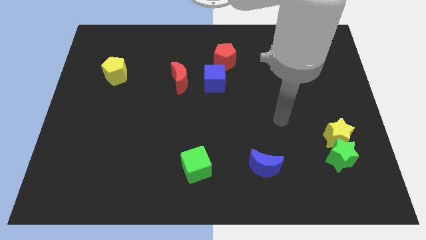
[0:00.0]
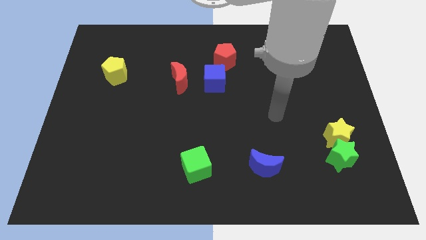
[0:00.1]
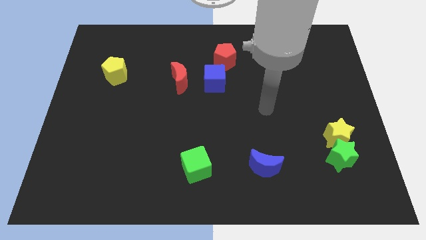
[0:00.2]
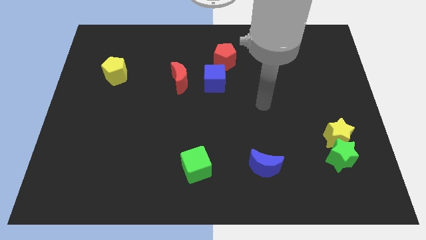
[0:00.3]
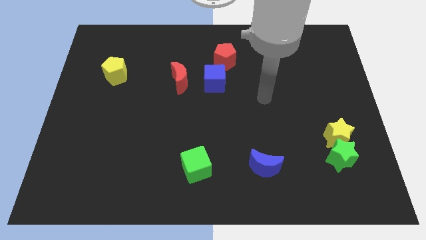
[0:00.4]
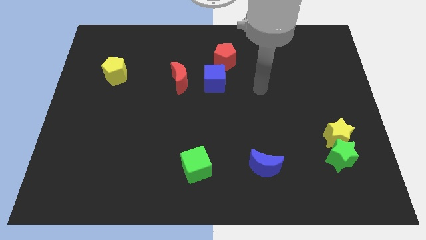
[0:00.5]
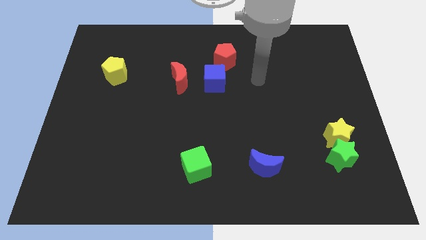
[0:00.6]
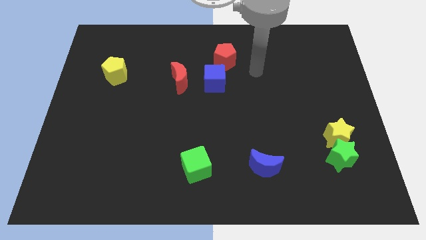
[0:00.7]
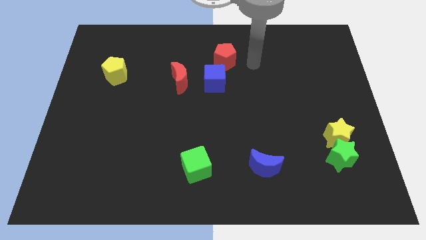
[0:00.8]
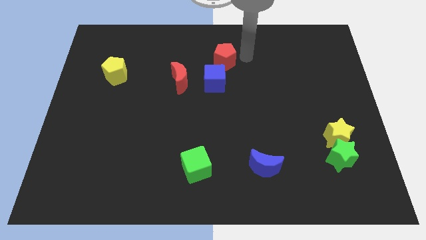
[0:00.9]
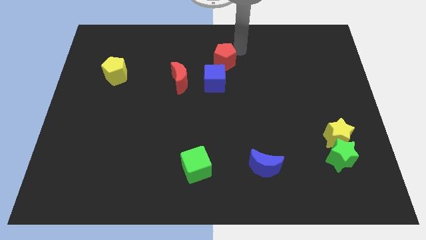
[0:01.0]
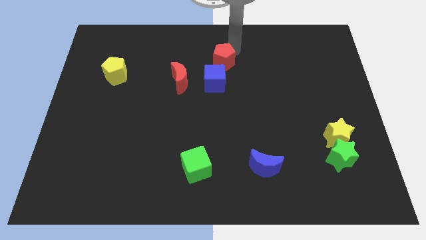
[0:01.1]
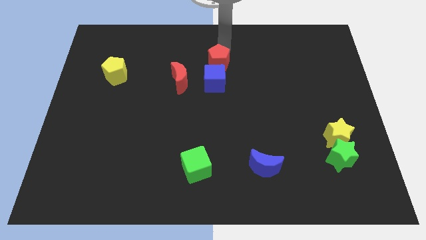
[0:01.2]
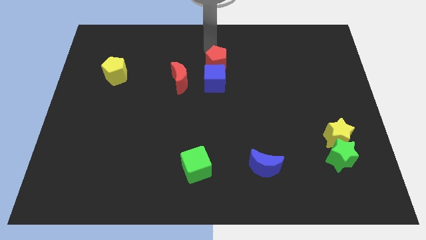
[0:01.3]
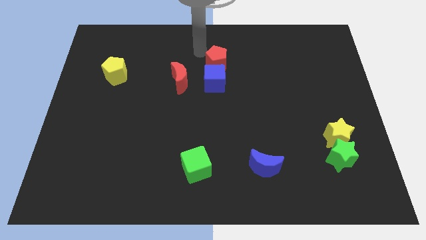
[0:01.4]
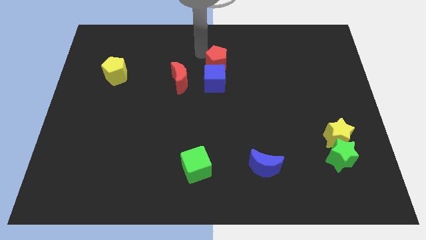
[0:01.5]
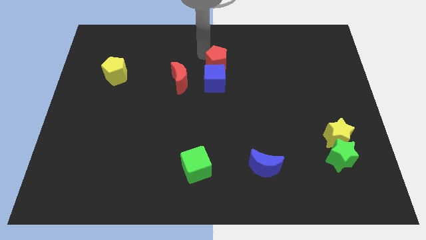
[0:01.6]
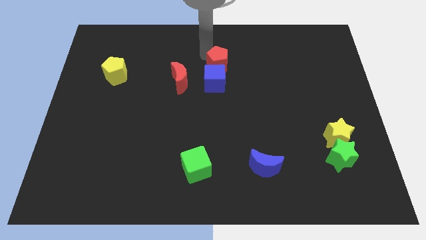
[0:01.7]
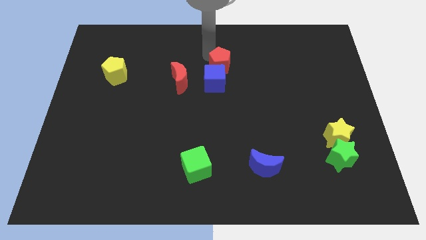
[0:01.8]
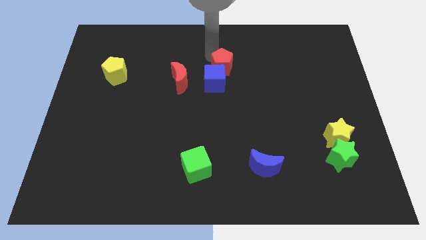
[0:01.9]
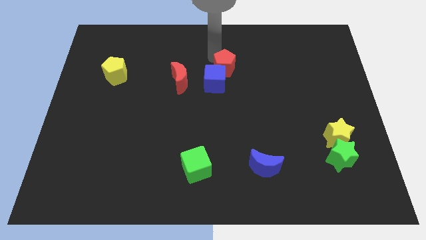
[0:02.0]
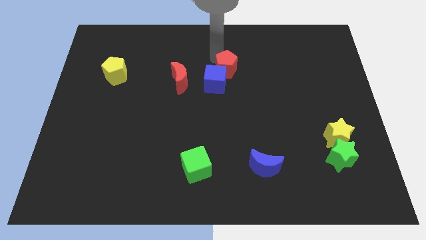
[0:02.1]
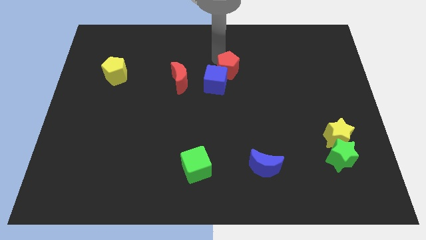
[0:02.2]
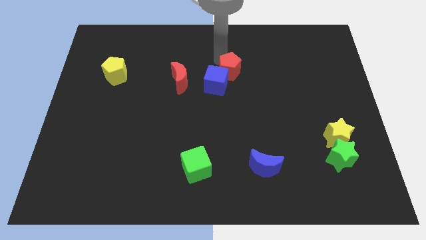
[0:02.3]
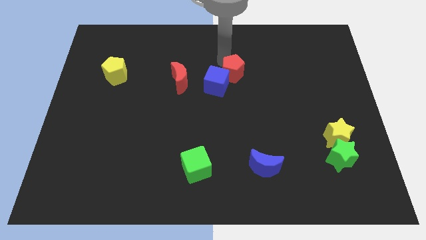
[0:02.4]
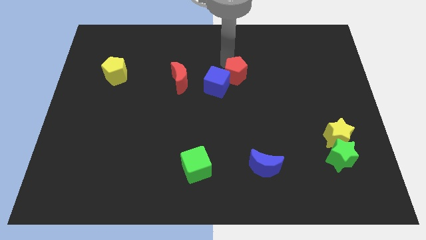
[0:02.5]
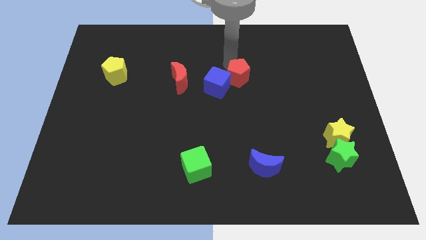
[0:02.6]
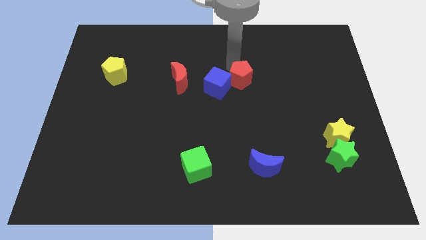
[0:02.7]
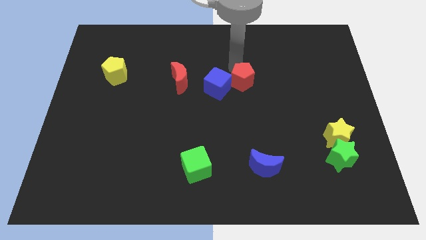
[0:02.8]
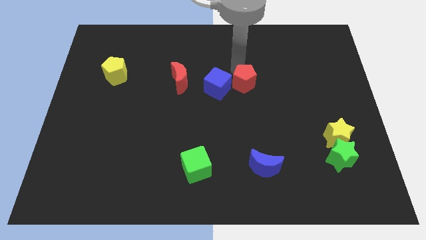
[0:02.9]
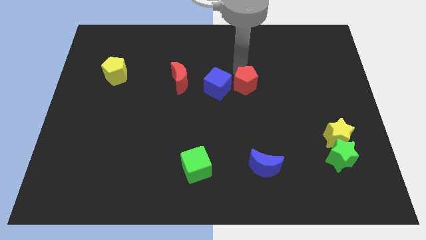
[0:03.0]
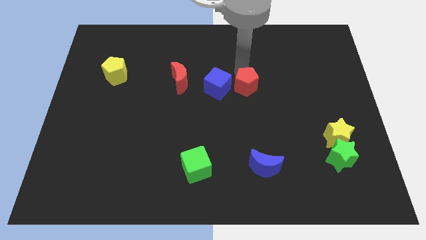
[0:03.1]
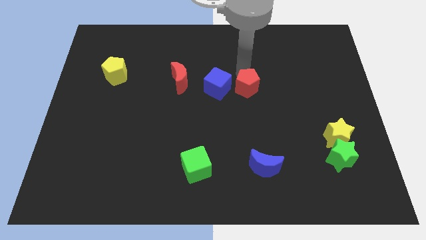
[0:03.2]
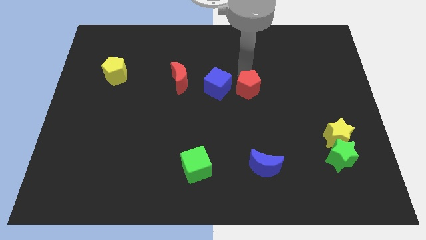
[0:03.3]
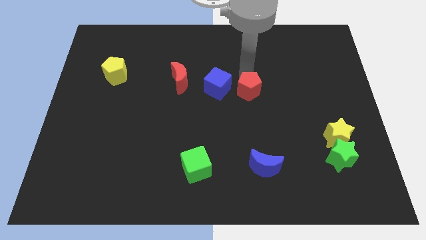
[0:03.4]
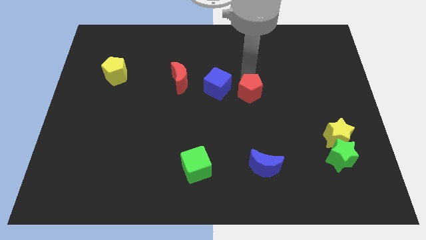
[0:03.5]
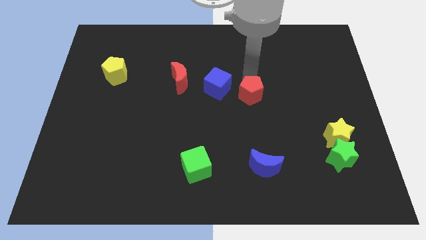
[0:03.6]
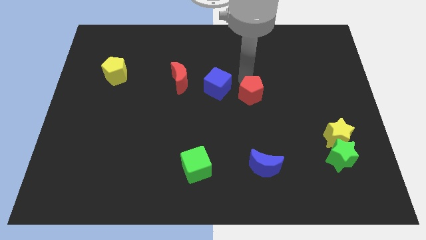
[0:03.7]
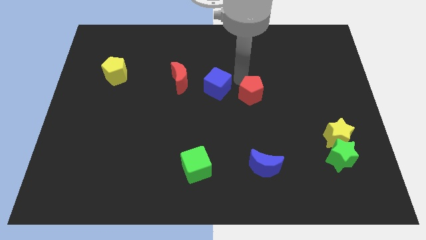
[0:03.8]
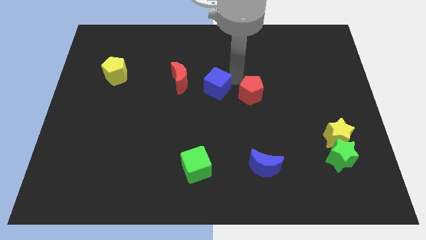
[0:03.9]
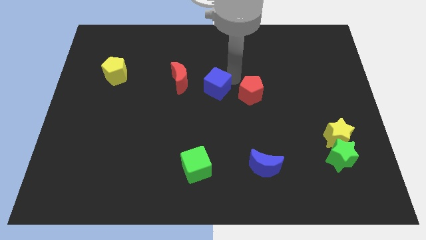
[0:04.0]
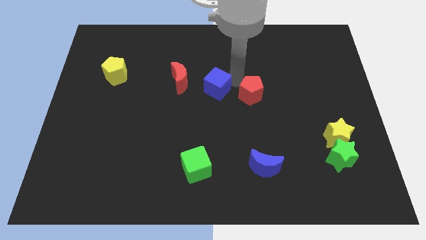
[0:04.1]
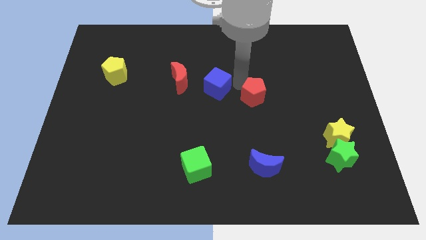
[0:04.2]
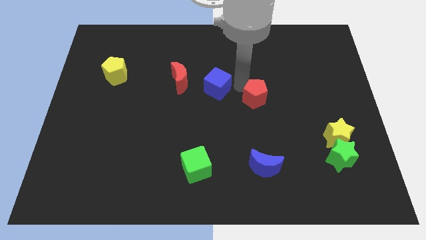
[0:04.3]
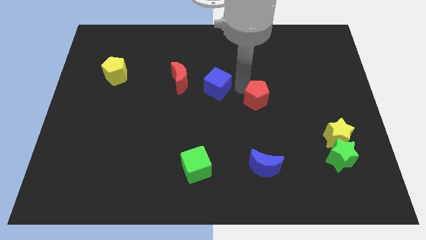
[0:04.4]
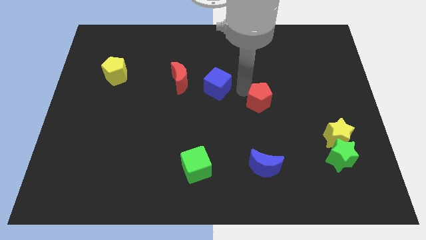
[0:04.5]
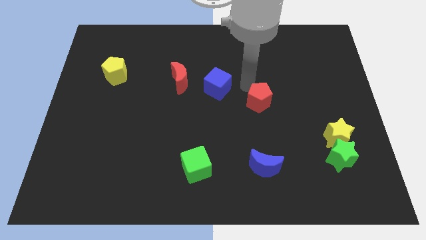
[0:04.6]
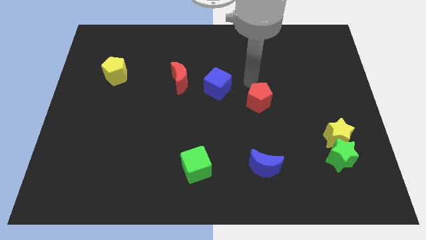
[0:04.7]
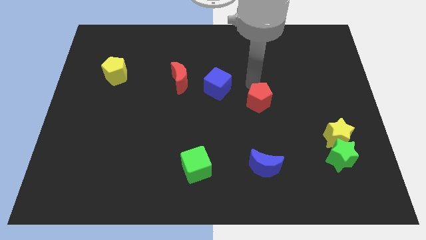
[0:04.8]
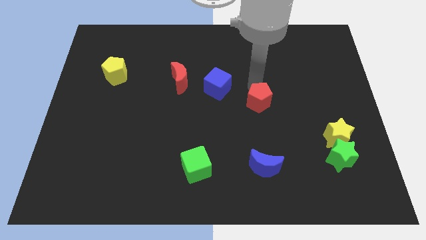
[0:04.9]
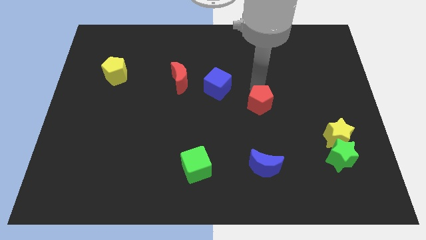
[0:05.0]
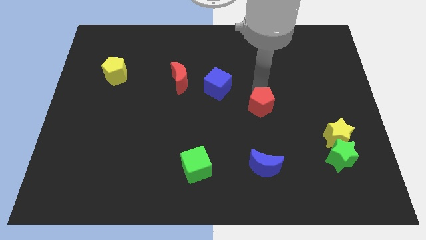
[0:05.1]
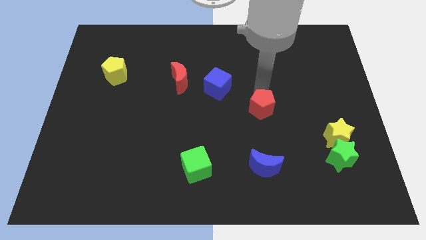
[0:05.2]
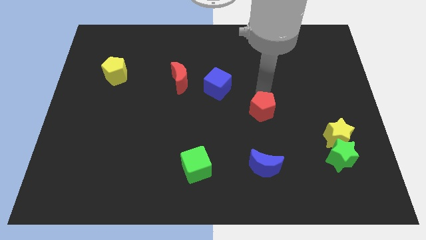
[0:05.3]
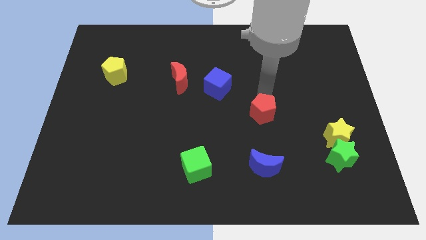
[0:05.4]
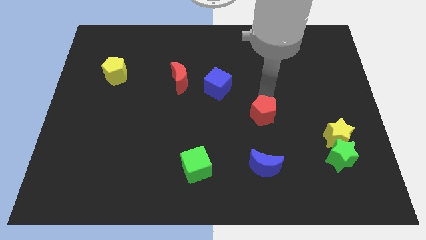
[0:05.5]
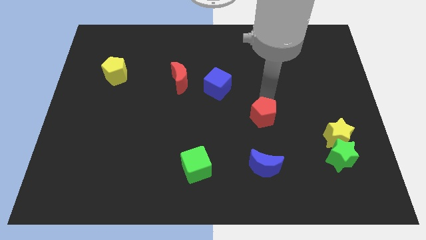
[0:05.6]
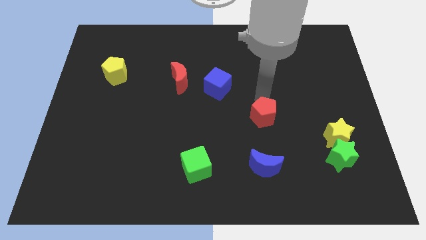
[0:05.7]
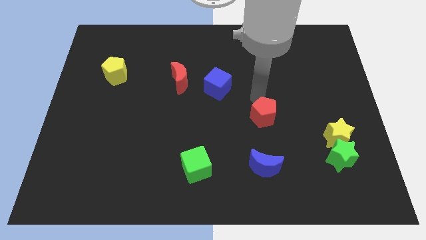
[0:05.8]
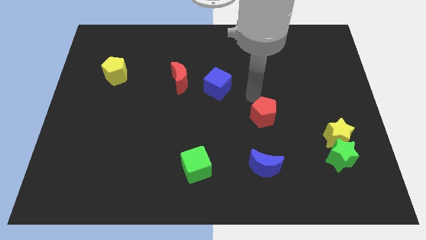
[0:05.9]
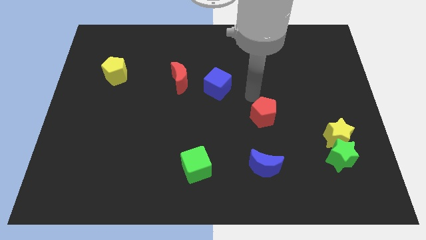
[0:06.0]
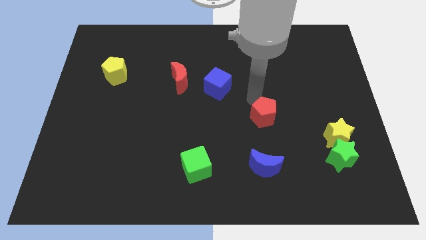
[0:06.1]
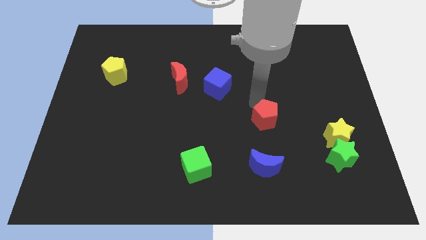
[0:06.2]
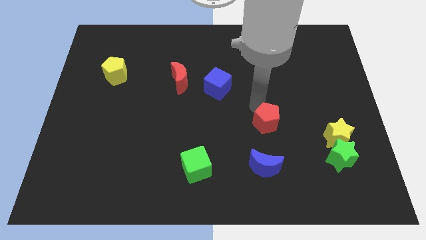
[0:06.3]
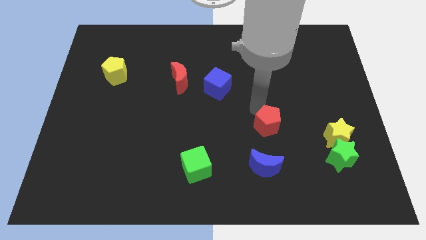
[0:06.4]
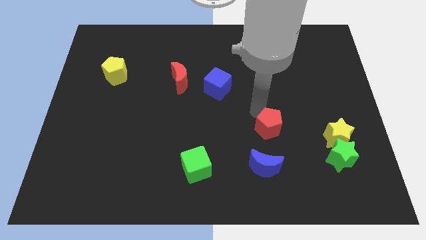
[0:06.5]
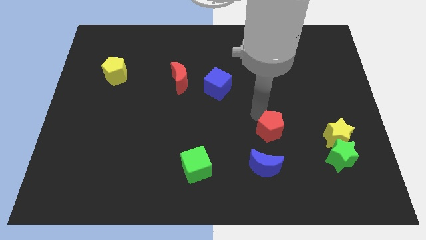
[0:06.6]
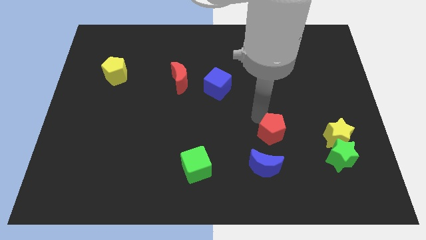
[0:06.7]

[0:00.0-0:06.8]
move the red pentagon diagonally up and to the right of the blue moon

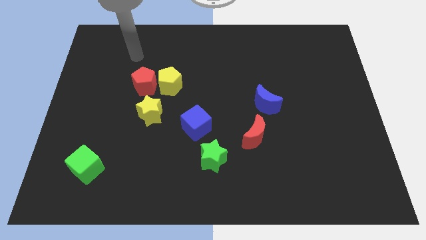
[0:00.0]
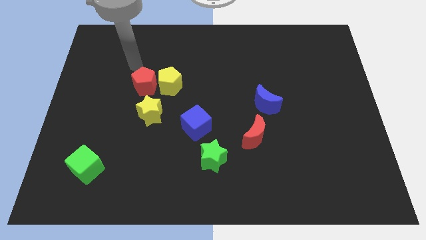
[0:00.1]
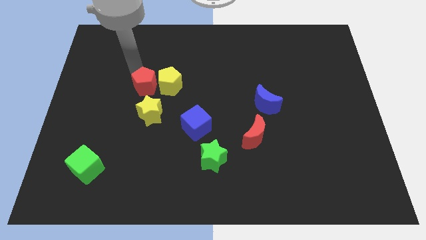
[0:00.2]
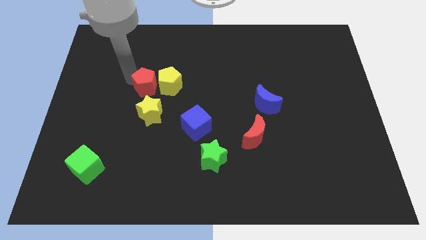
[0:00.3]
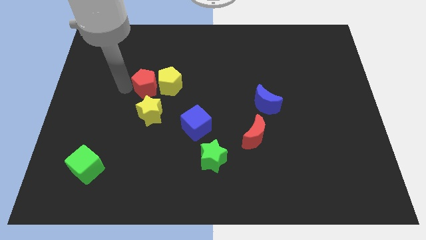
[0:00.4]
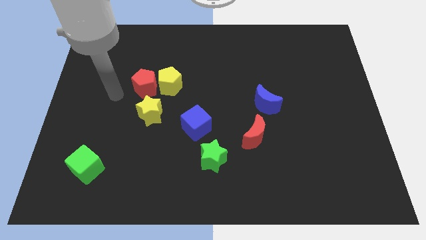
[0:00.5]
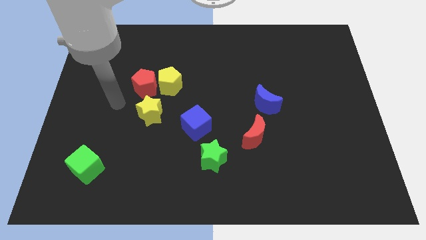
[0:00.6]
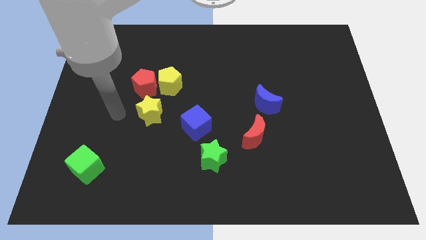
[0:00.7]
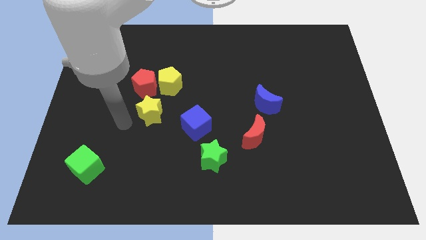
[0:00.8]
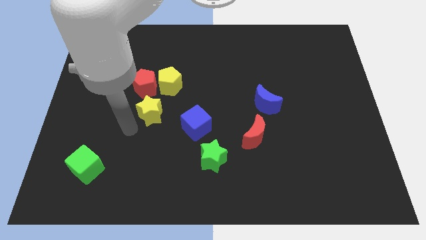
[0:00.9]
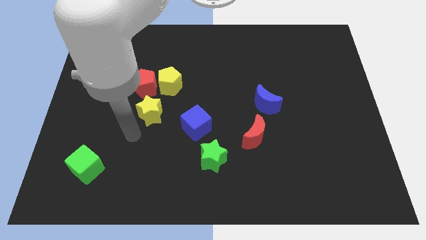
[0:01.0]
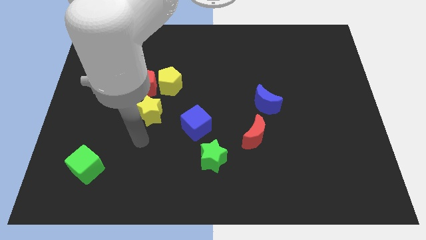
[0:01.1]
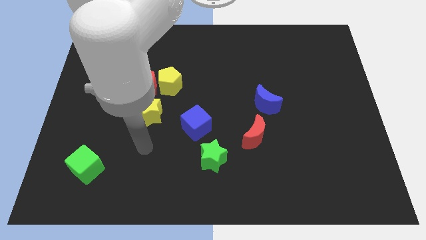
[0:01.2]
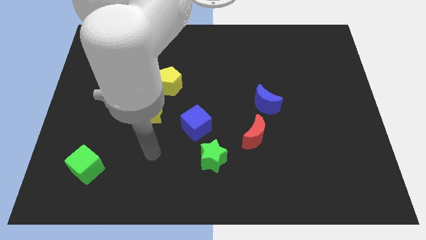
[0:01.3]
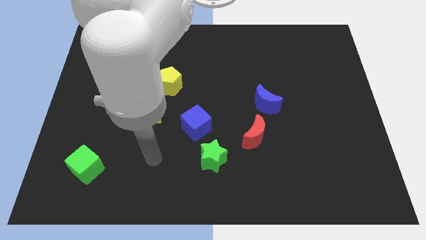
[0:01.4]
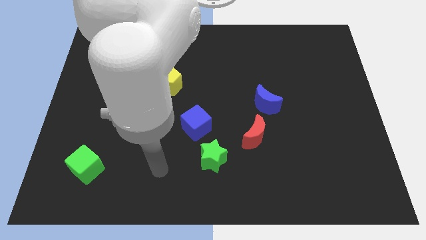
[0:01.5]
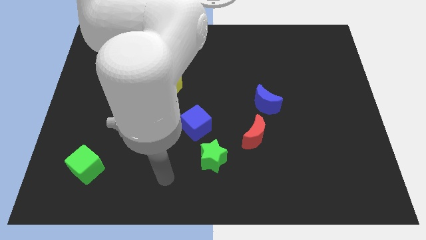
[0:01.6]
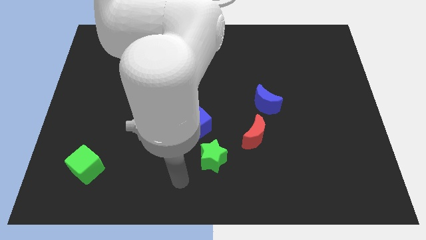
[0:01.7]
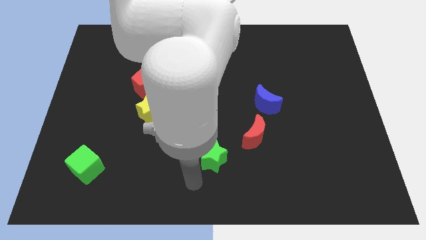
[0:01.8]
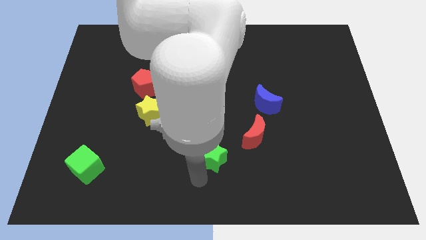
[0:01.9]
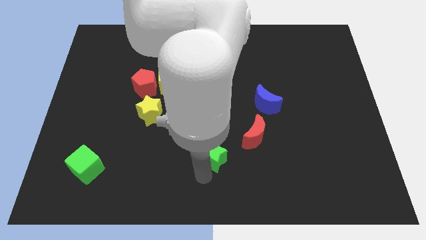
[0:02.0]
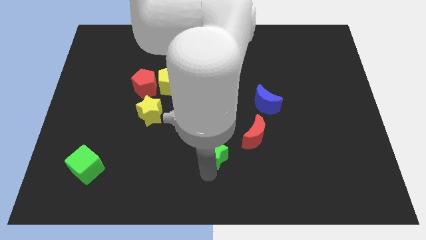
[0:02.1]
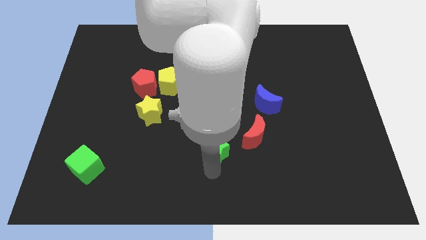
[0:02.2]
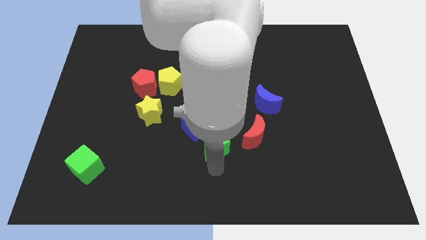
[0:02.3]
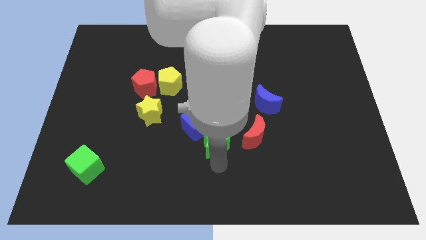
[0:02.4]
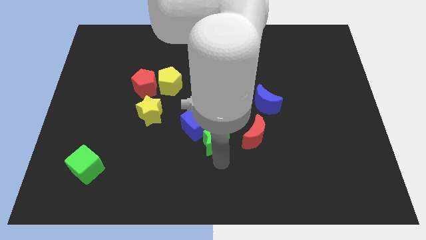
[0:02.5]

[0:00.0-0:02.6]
move the green star to the right of the blue cube
